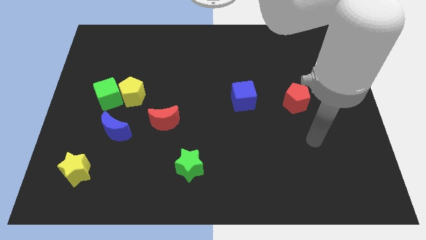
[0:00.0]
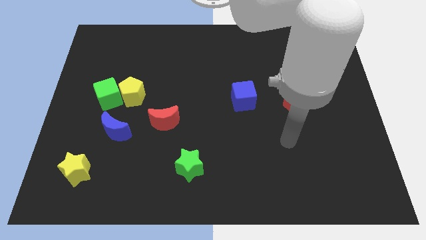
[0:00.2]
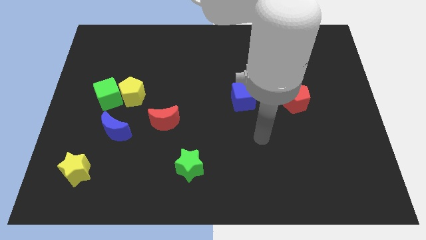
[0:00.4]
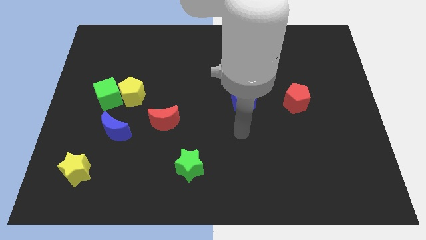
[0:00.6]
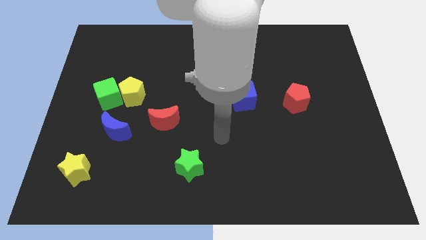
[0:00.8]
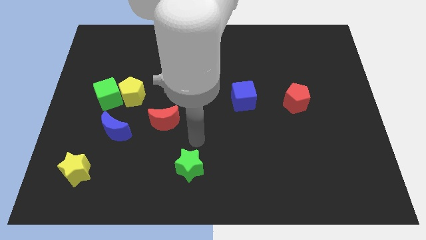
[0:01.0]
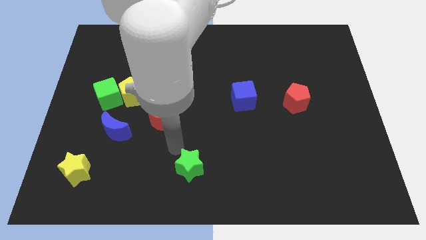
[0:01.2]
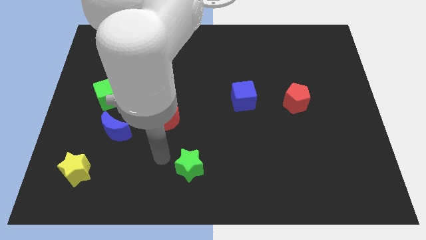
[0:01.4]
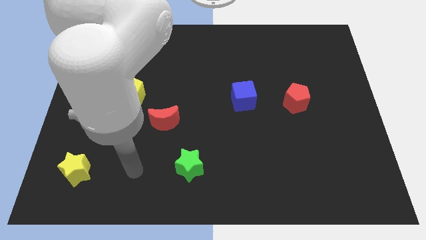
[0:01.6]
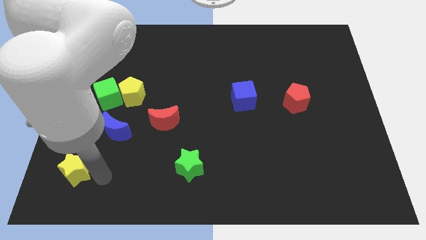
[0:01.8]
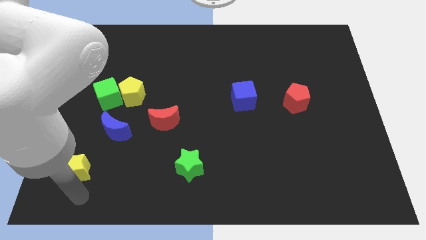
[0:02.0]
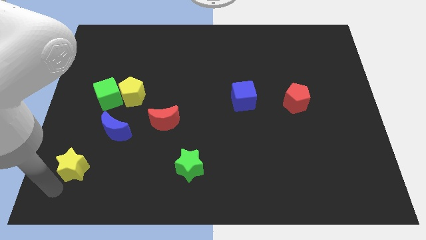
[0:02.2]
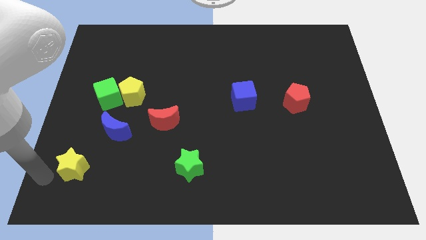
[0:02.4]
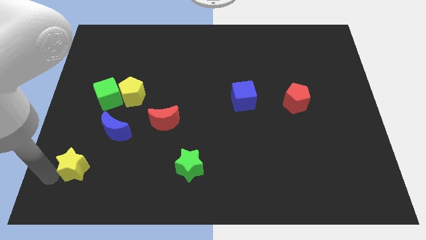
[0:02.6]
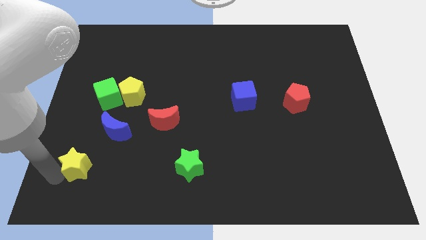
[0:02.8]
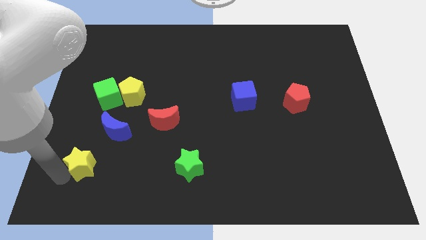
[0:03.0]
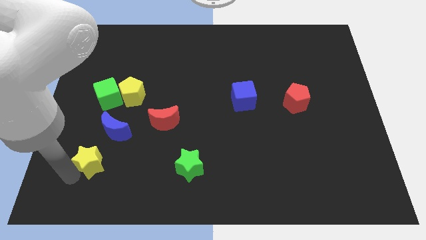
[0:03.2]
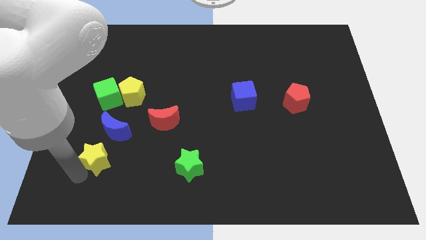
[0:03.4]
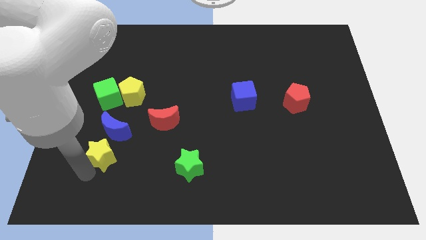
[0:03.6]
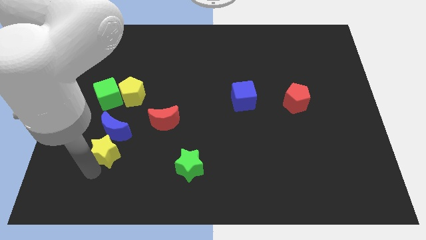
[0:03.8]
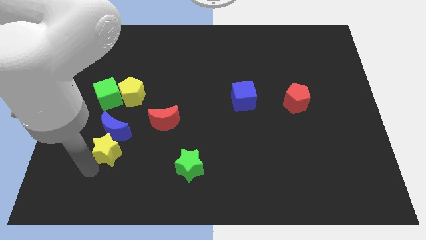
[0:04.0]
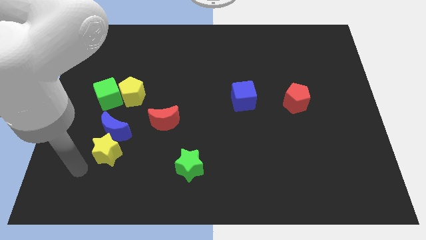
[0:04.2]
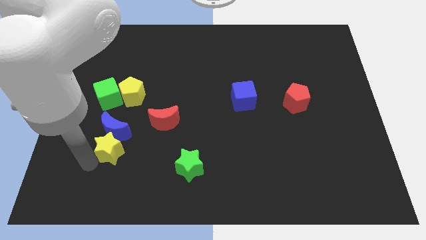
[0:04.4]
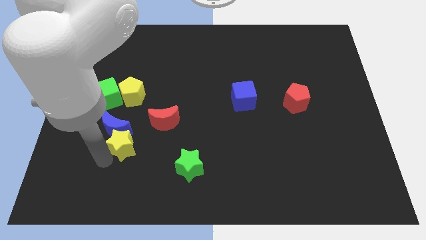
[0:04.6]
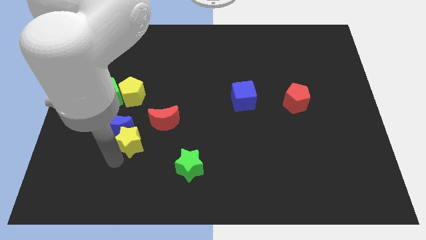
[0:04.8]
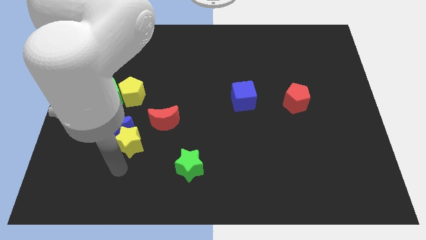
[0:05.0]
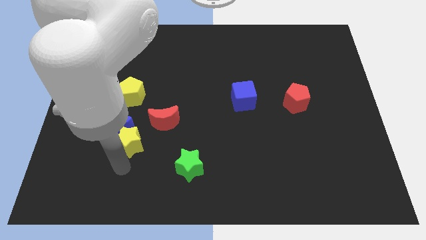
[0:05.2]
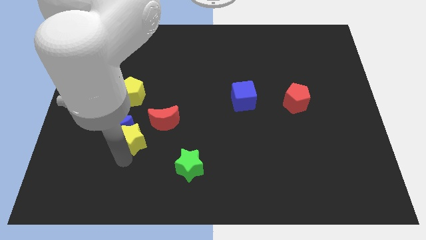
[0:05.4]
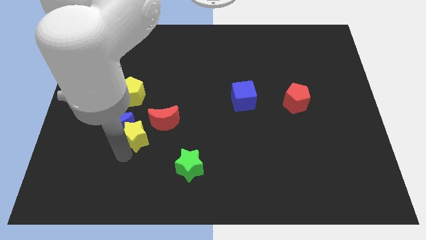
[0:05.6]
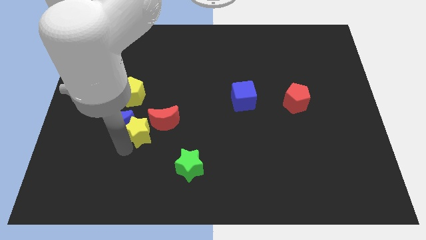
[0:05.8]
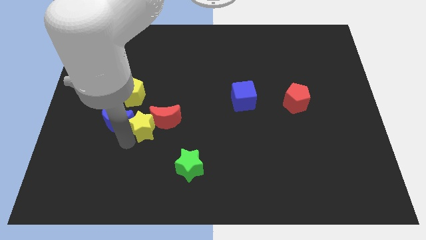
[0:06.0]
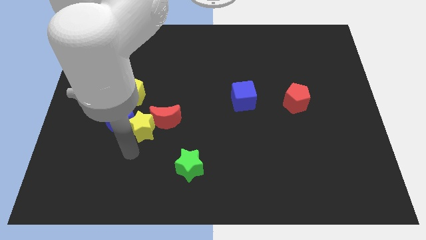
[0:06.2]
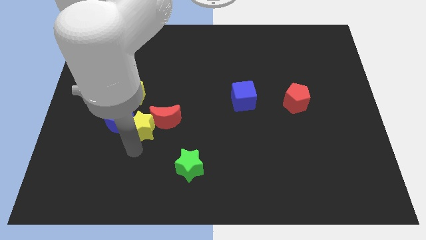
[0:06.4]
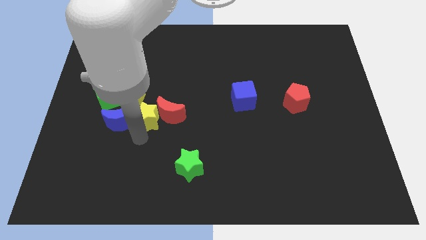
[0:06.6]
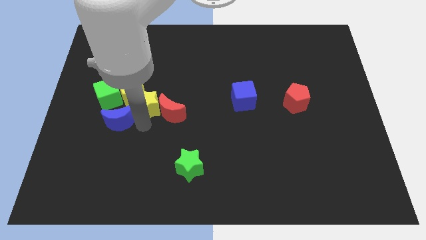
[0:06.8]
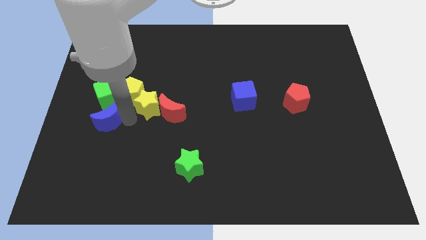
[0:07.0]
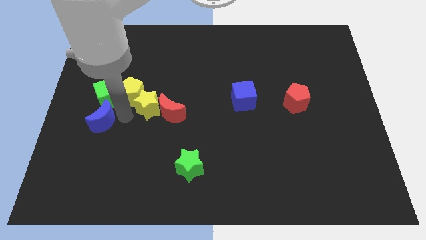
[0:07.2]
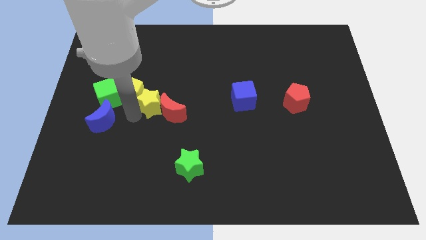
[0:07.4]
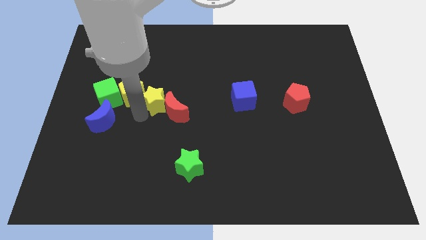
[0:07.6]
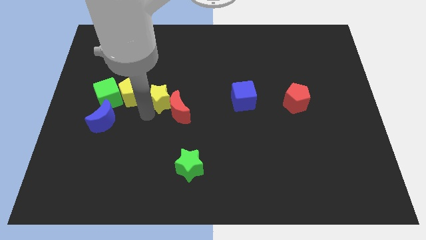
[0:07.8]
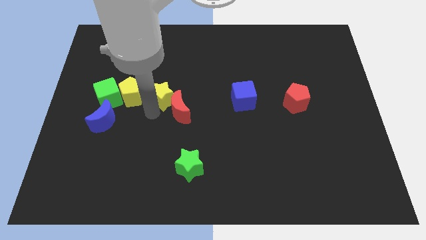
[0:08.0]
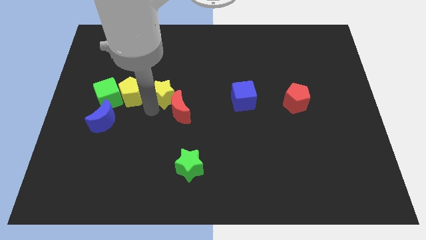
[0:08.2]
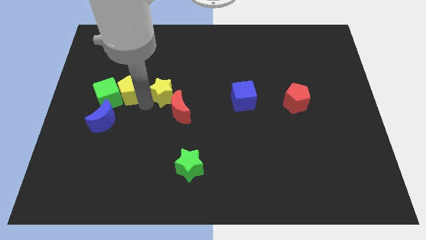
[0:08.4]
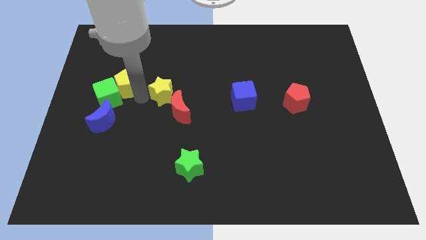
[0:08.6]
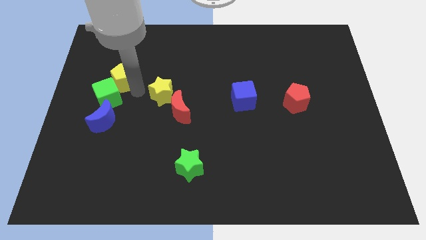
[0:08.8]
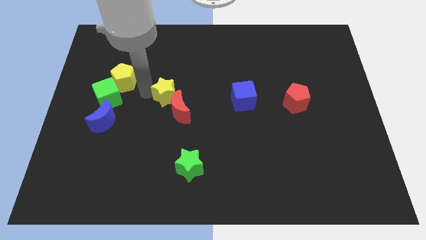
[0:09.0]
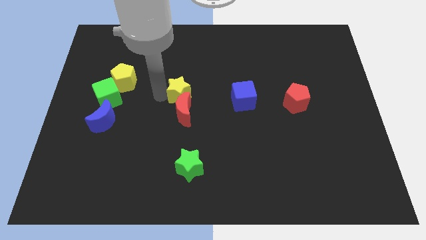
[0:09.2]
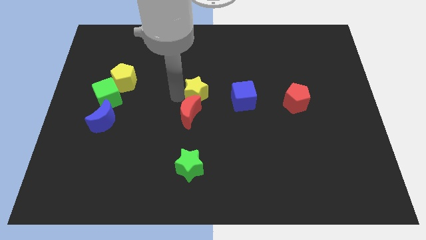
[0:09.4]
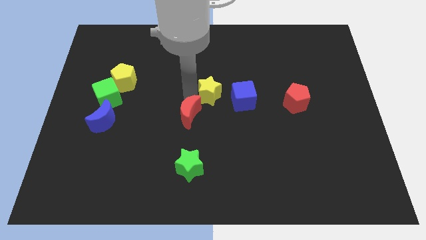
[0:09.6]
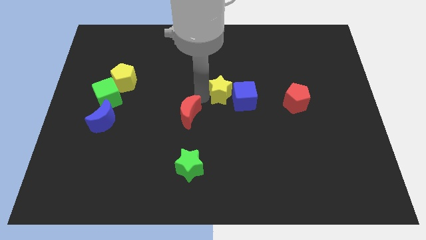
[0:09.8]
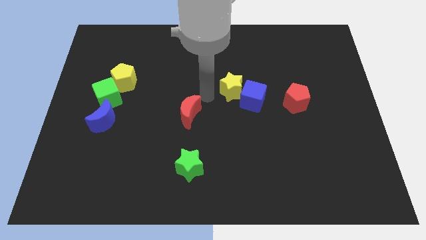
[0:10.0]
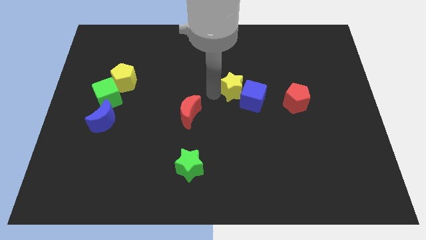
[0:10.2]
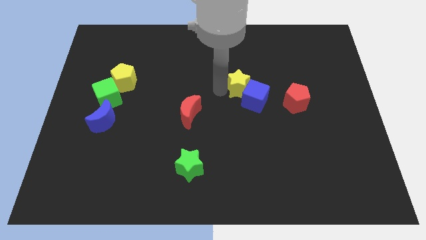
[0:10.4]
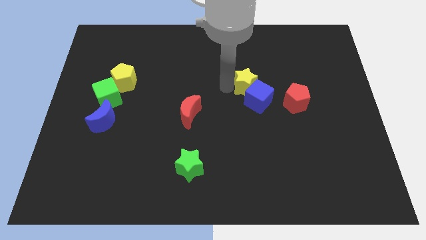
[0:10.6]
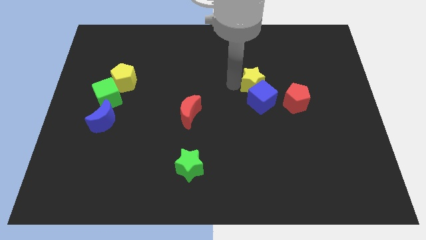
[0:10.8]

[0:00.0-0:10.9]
put the yellow star diagonally up and to the right of the blue cube

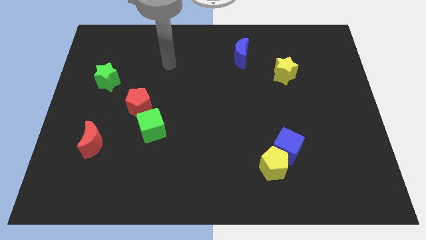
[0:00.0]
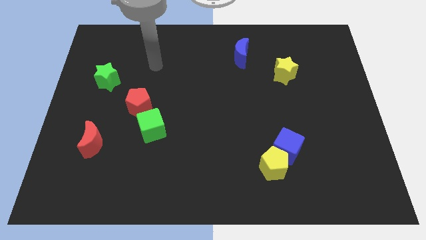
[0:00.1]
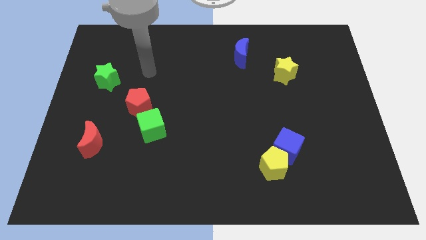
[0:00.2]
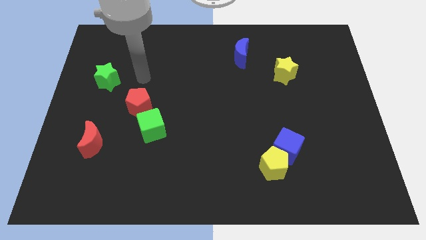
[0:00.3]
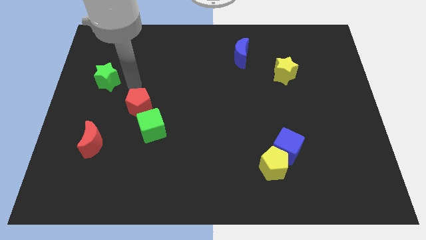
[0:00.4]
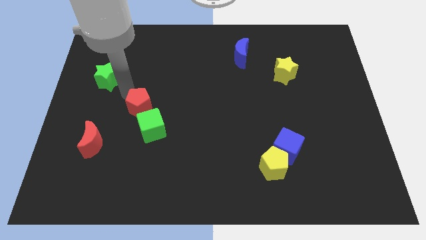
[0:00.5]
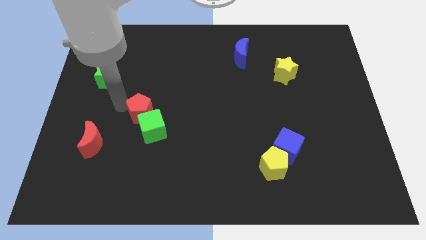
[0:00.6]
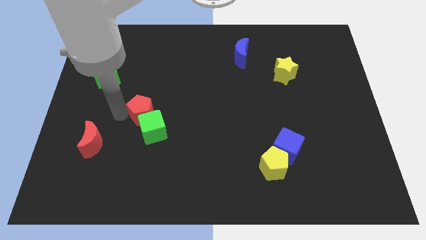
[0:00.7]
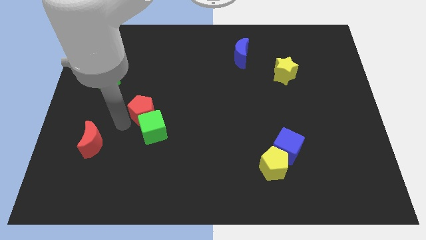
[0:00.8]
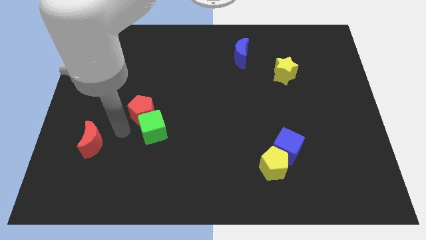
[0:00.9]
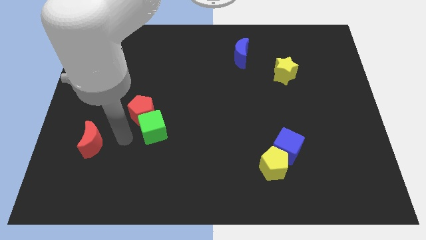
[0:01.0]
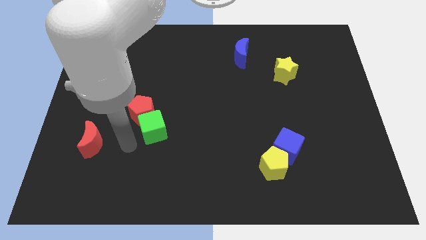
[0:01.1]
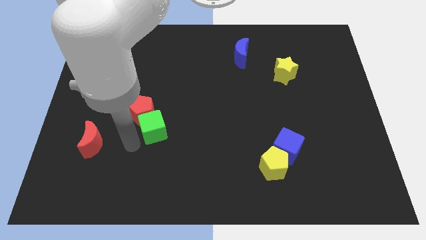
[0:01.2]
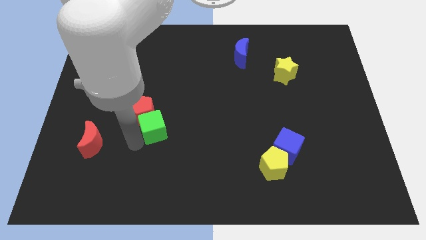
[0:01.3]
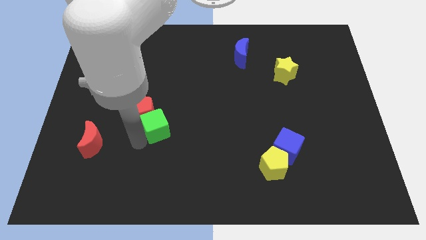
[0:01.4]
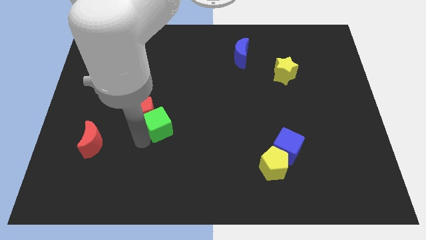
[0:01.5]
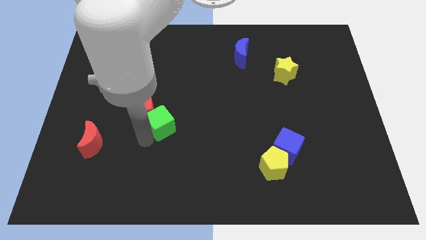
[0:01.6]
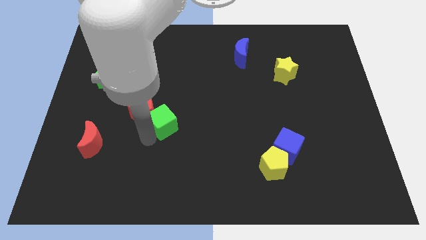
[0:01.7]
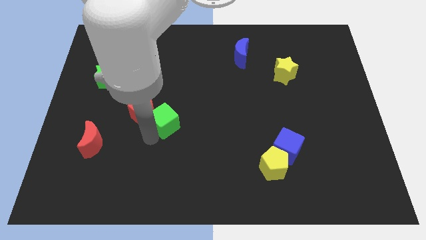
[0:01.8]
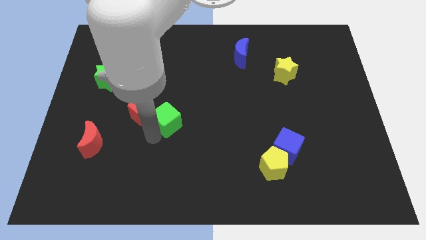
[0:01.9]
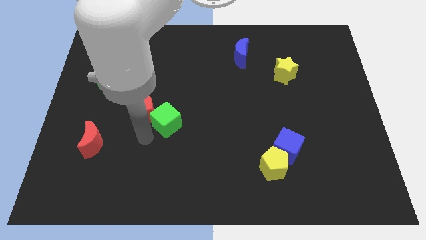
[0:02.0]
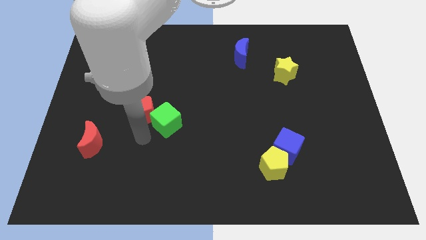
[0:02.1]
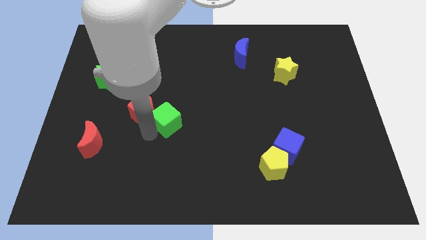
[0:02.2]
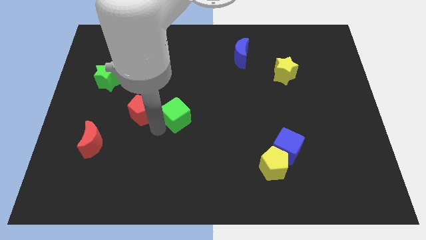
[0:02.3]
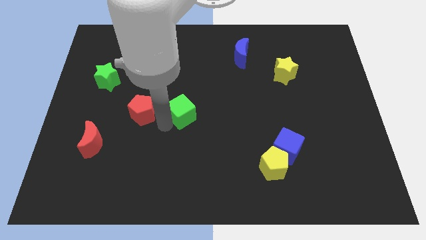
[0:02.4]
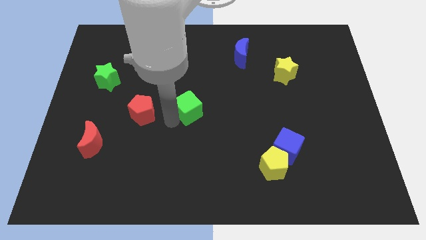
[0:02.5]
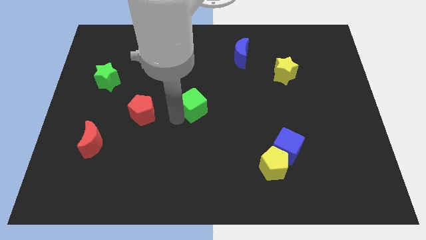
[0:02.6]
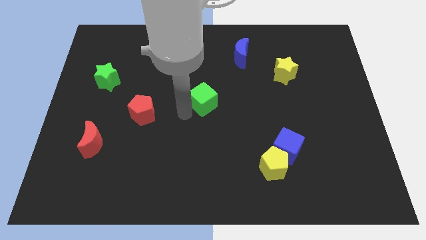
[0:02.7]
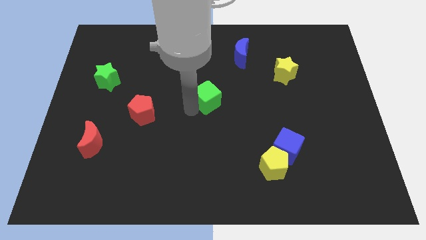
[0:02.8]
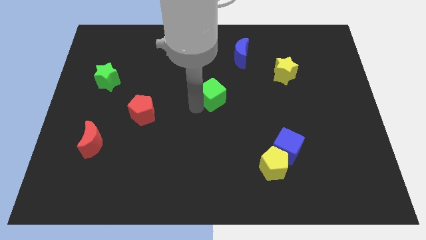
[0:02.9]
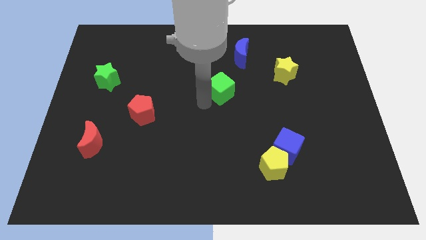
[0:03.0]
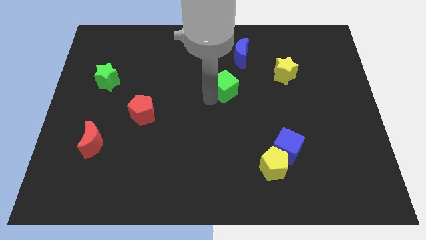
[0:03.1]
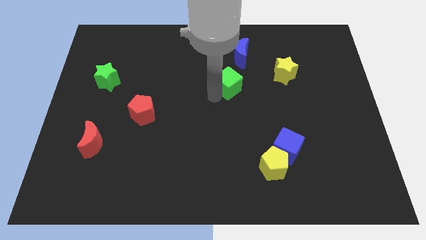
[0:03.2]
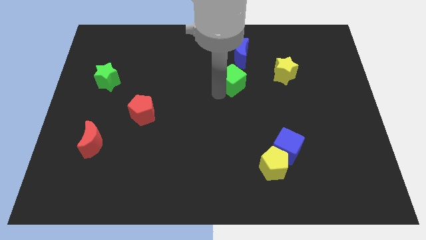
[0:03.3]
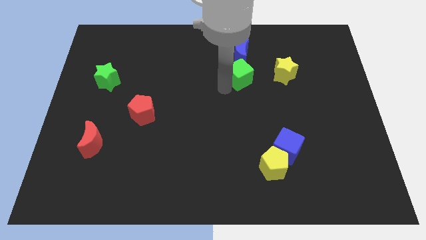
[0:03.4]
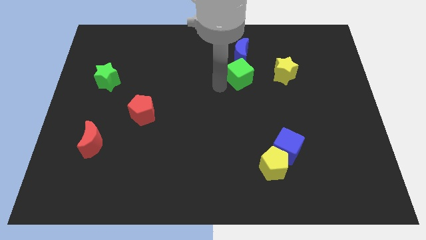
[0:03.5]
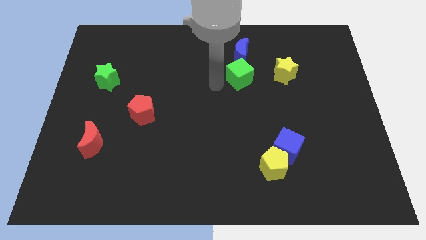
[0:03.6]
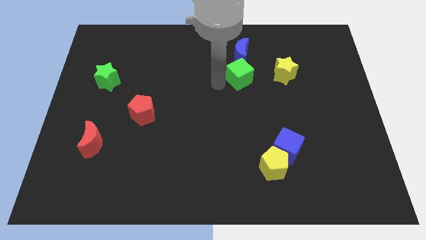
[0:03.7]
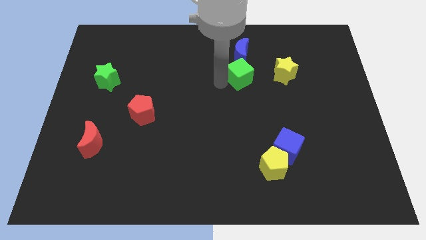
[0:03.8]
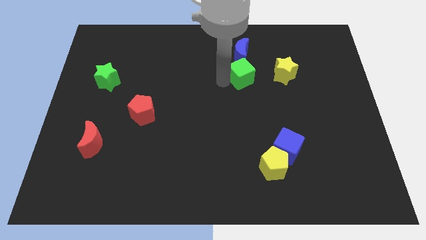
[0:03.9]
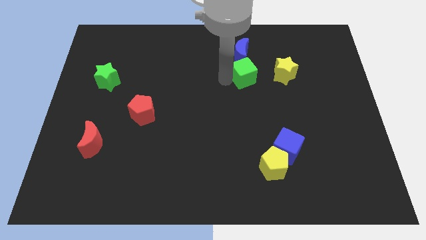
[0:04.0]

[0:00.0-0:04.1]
slide the green cube diagonally down and to the right of the blue moon
